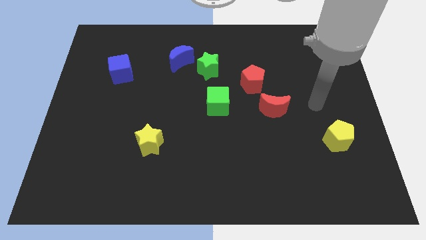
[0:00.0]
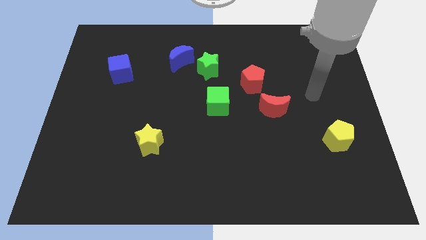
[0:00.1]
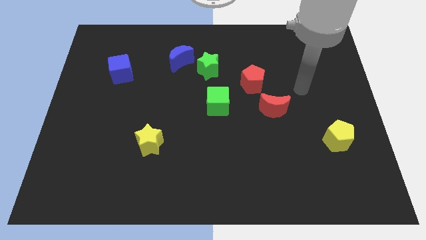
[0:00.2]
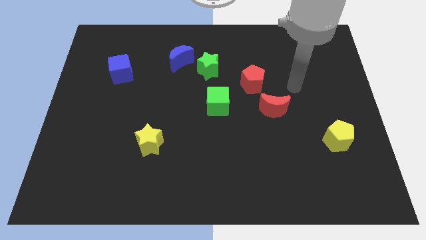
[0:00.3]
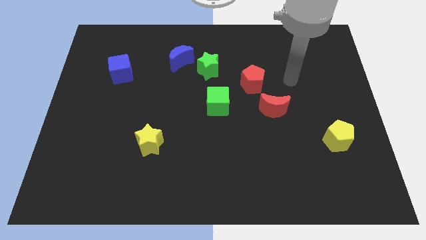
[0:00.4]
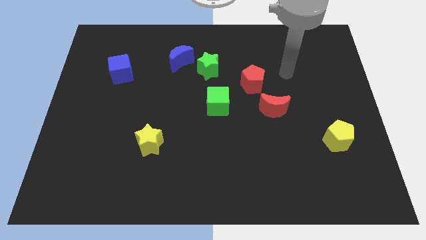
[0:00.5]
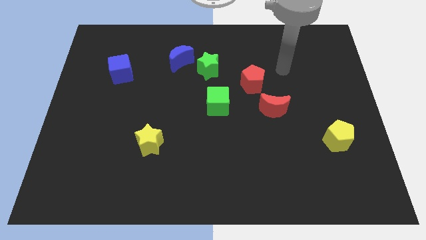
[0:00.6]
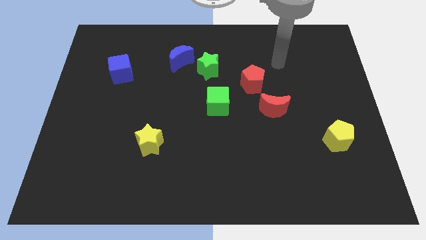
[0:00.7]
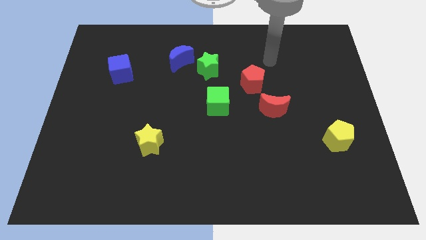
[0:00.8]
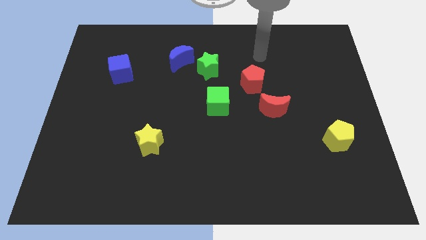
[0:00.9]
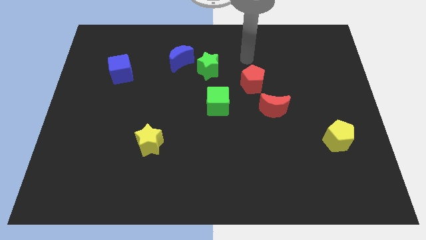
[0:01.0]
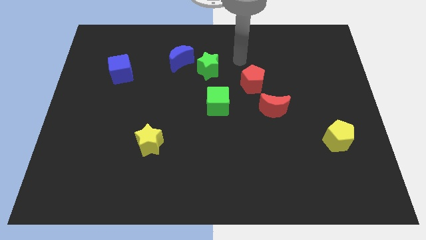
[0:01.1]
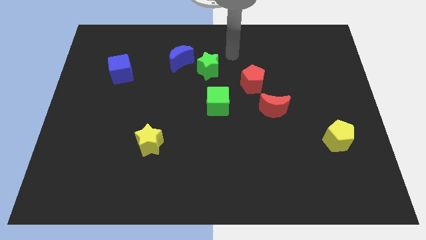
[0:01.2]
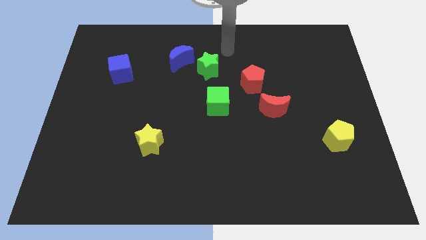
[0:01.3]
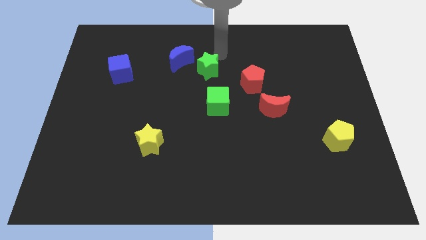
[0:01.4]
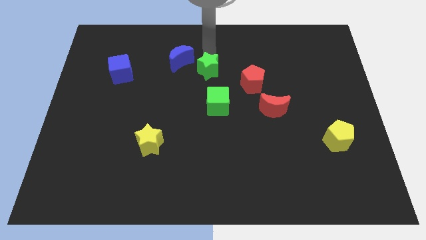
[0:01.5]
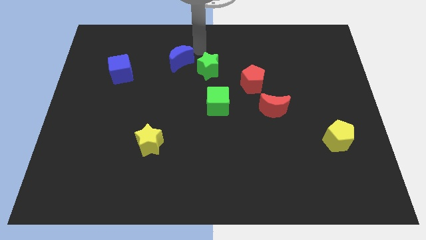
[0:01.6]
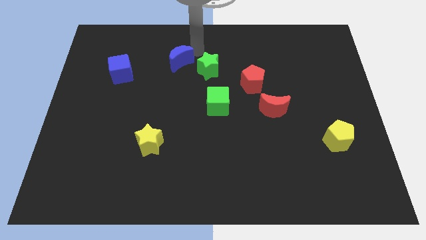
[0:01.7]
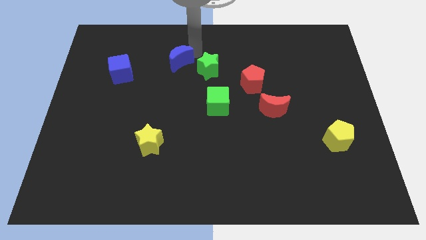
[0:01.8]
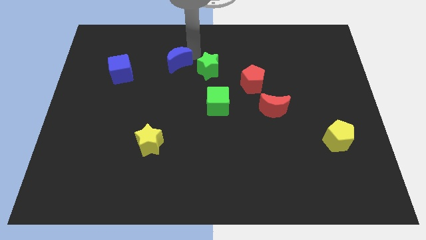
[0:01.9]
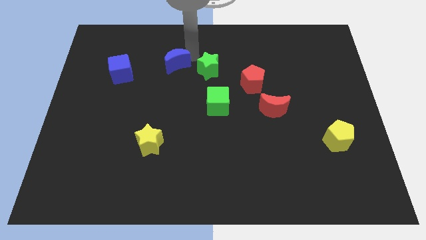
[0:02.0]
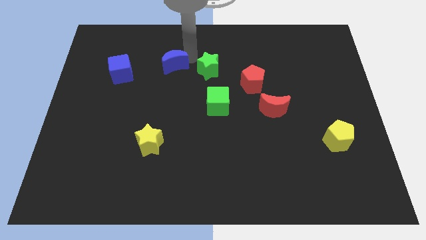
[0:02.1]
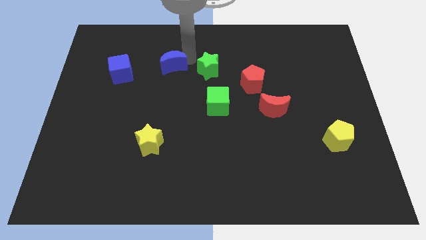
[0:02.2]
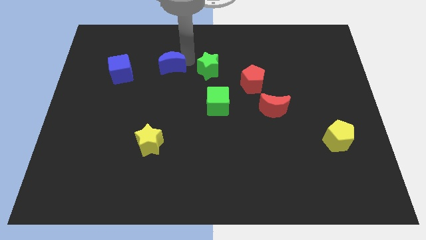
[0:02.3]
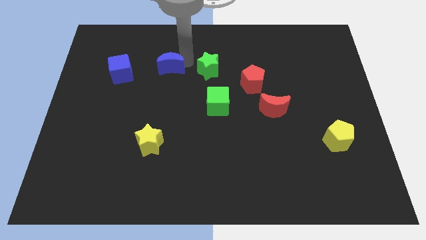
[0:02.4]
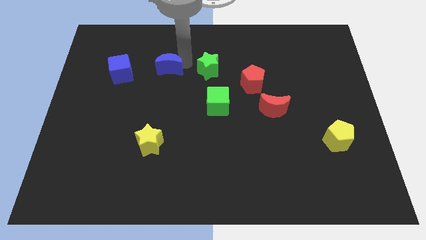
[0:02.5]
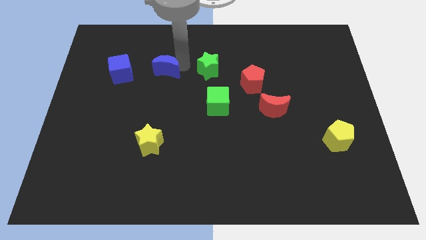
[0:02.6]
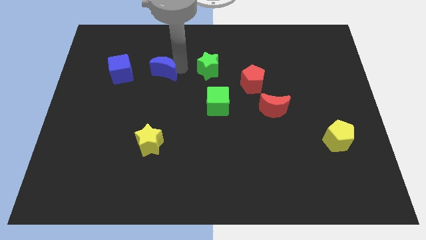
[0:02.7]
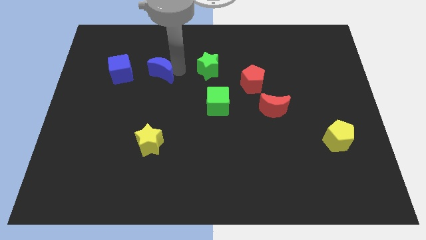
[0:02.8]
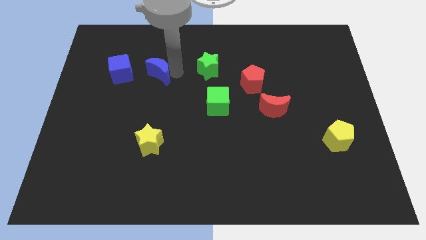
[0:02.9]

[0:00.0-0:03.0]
move the blue moon down and left a little

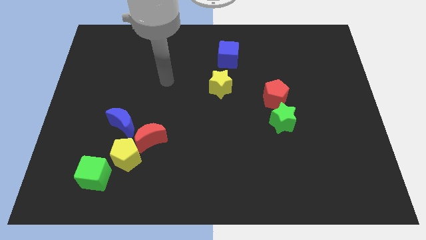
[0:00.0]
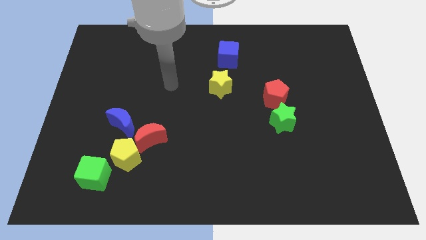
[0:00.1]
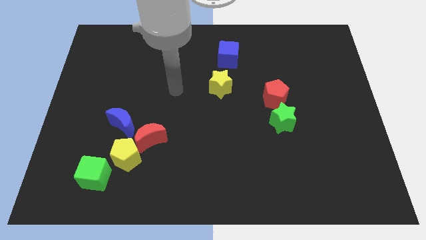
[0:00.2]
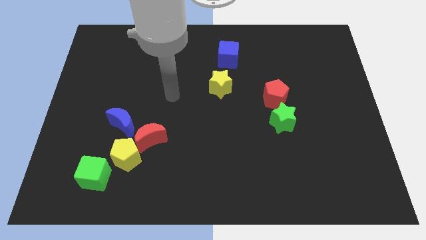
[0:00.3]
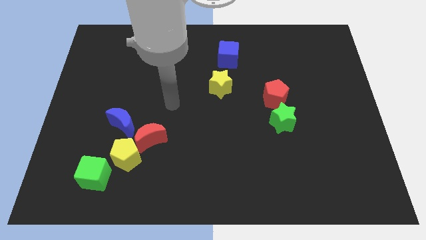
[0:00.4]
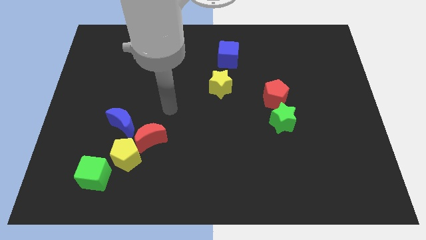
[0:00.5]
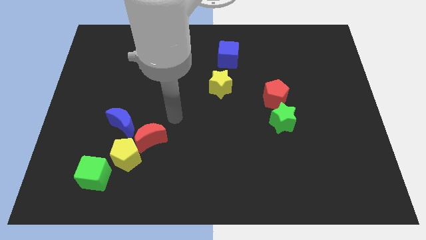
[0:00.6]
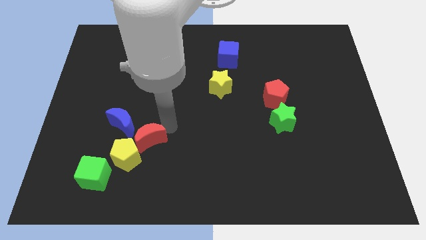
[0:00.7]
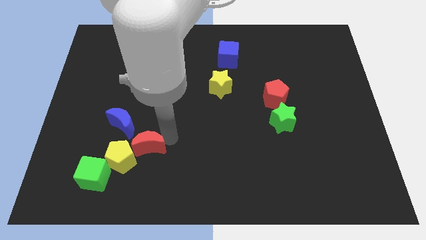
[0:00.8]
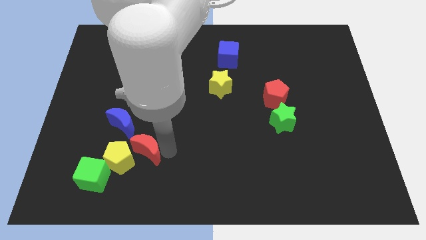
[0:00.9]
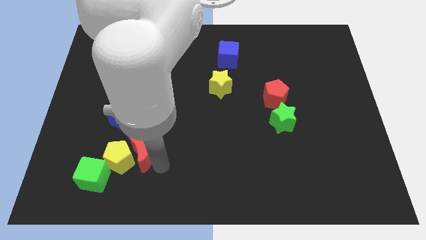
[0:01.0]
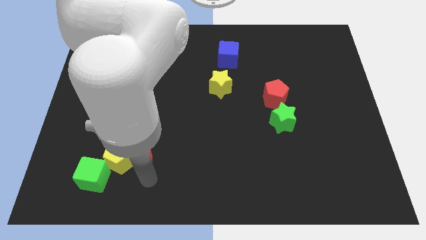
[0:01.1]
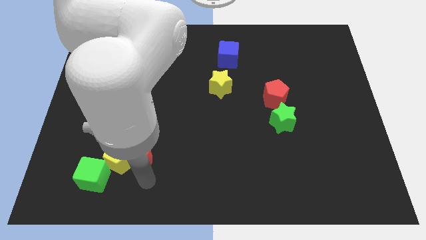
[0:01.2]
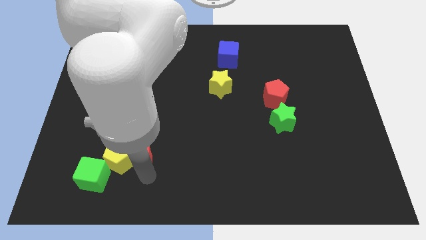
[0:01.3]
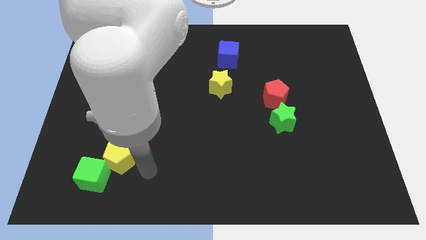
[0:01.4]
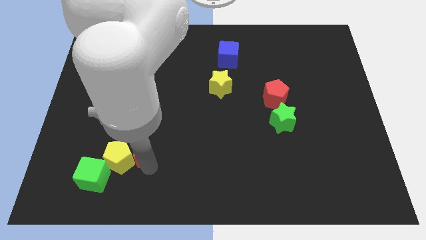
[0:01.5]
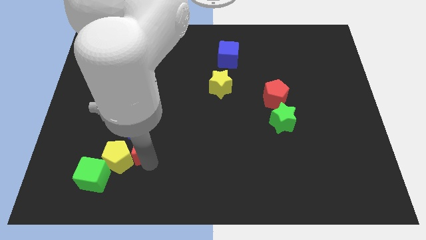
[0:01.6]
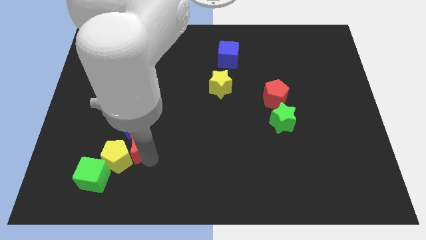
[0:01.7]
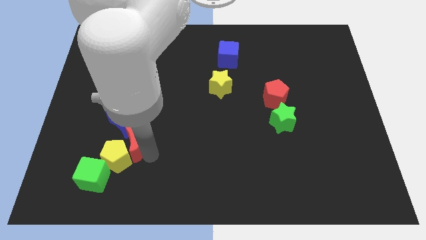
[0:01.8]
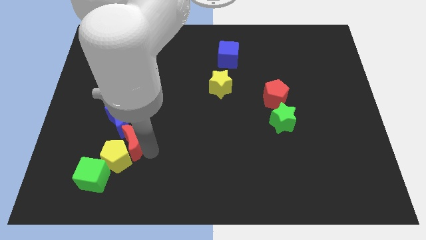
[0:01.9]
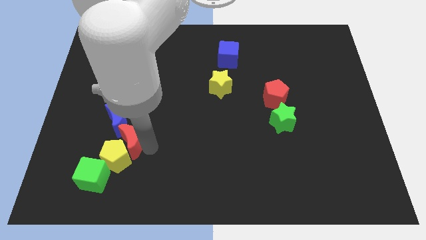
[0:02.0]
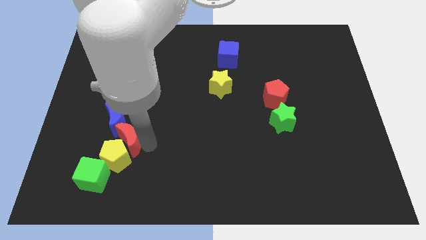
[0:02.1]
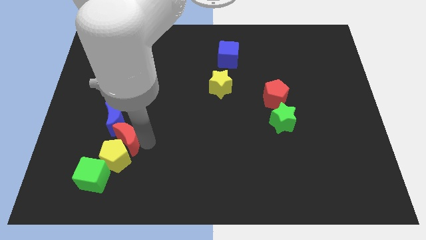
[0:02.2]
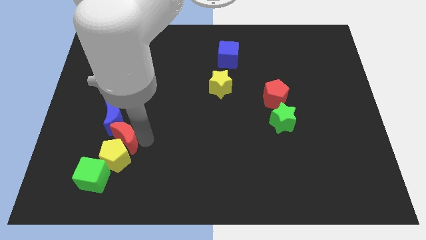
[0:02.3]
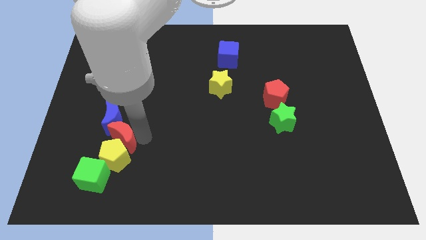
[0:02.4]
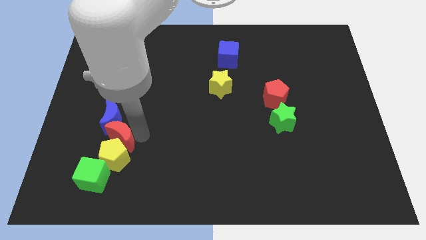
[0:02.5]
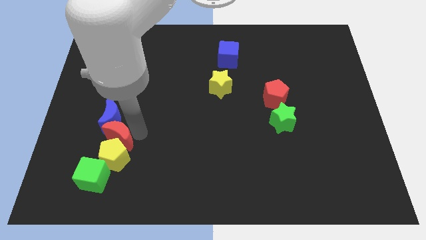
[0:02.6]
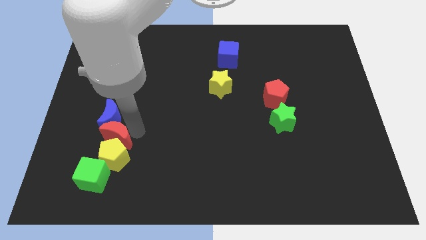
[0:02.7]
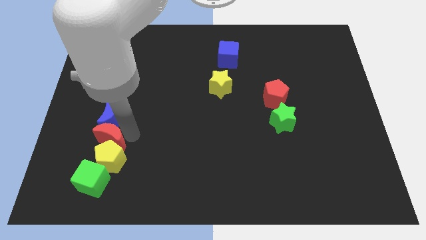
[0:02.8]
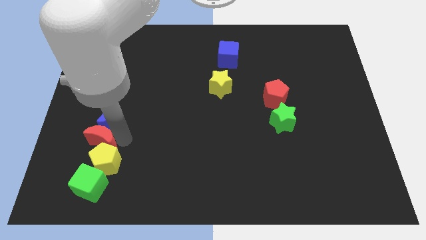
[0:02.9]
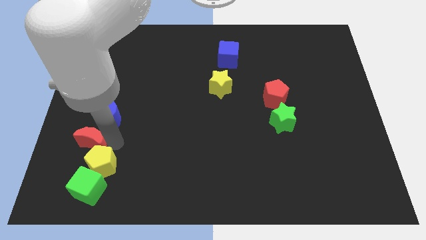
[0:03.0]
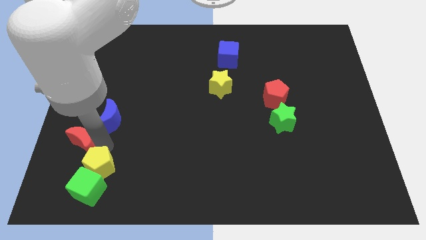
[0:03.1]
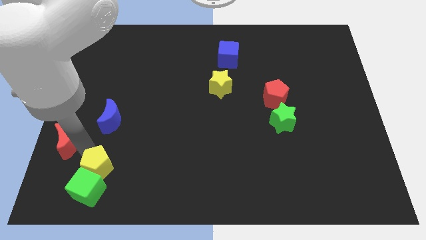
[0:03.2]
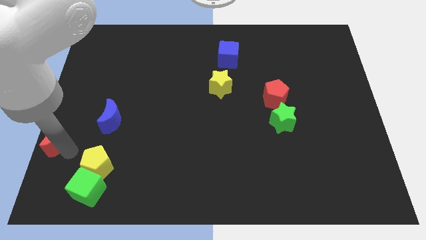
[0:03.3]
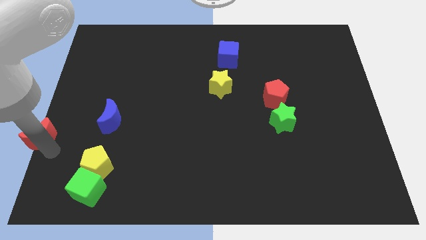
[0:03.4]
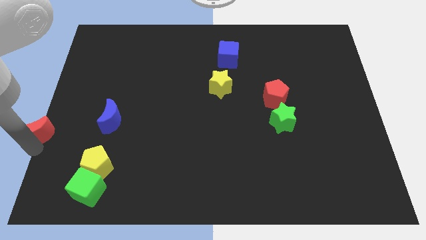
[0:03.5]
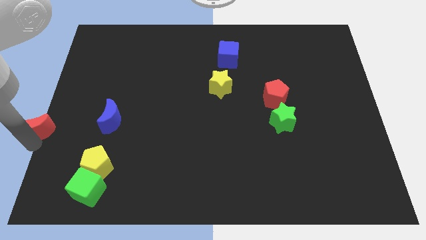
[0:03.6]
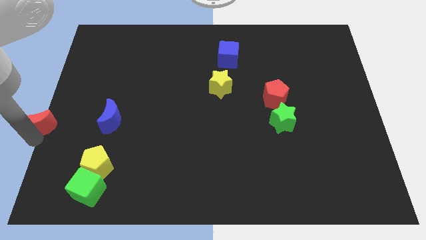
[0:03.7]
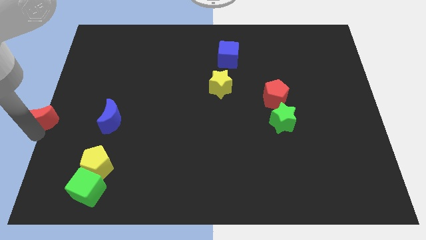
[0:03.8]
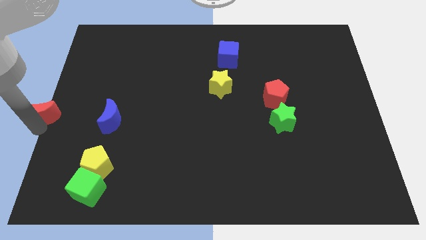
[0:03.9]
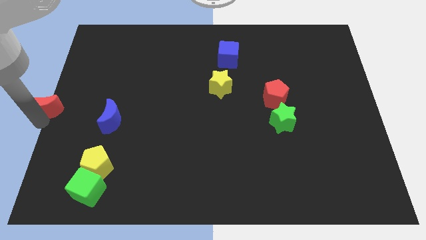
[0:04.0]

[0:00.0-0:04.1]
slightly move the red moon upwards and to the left diagonally

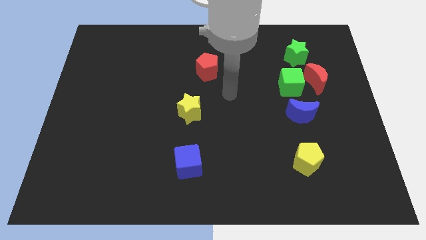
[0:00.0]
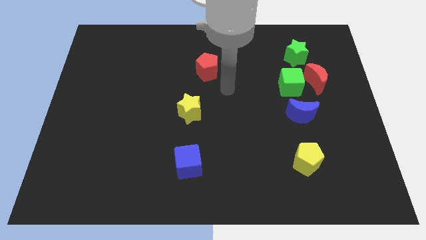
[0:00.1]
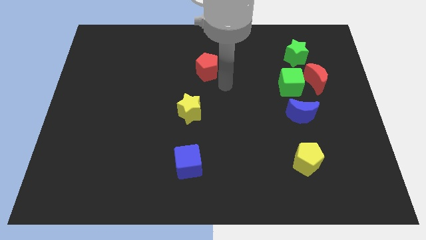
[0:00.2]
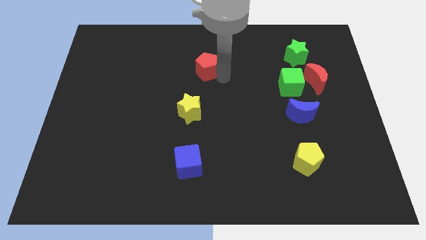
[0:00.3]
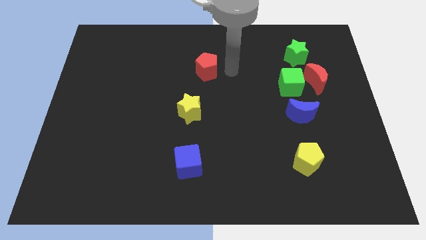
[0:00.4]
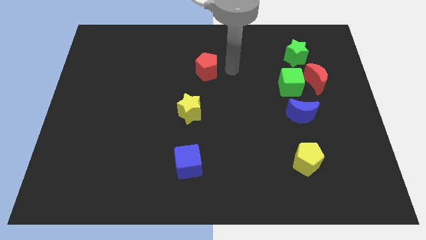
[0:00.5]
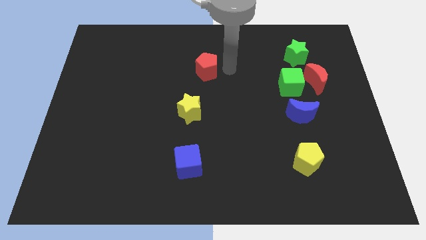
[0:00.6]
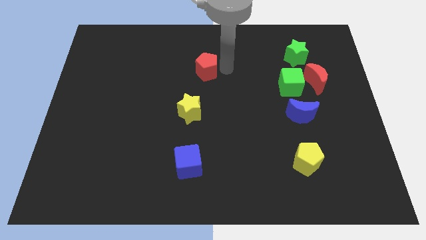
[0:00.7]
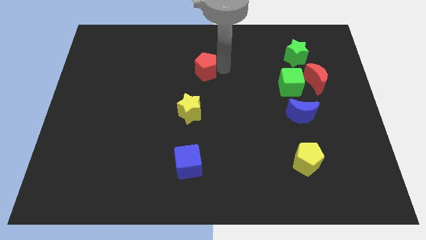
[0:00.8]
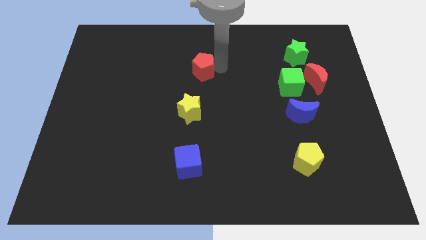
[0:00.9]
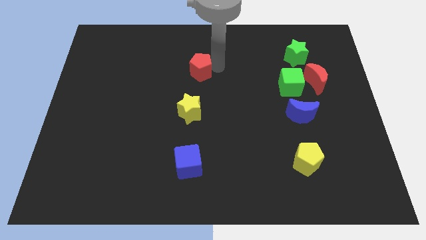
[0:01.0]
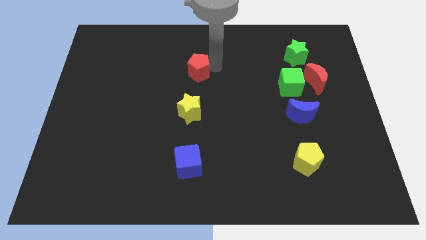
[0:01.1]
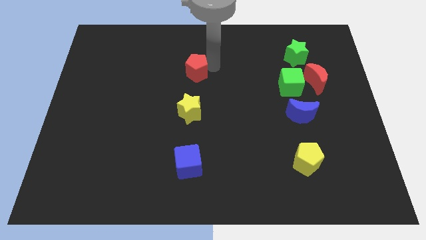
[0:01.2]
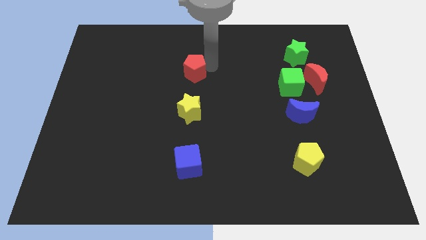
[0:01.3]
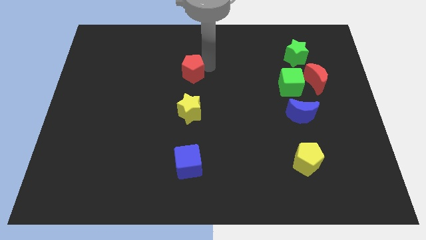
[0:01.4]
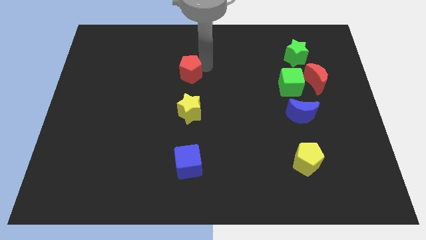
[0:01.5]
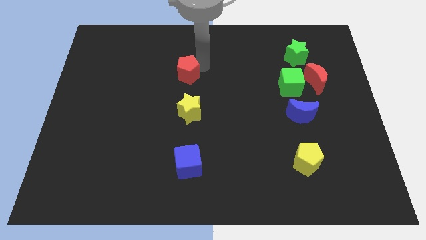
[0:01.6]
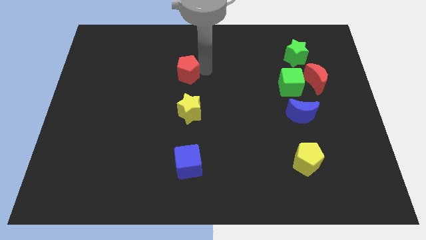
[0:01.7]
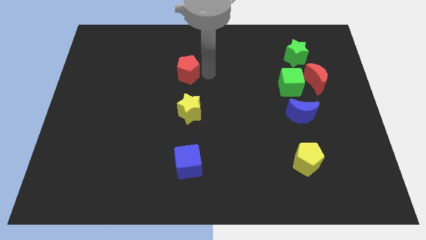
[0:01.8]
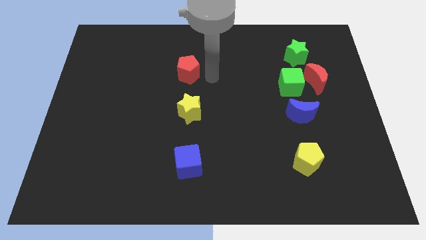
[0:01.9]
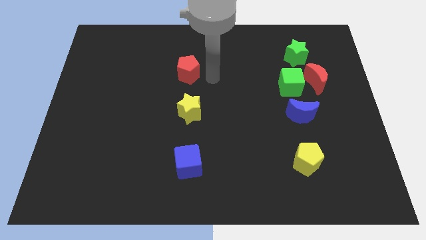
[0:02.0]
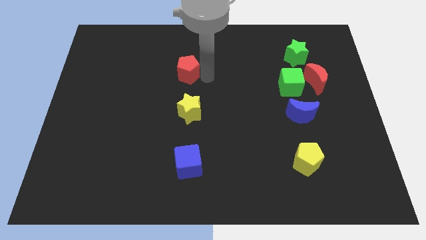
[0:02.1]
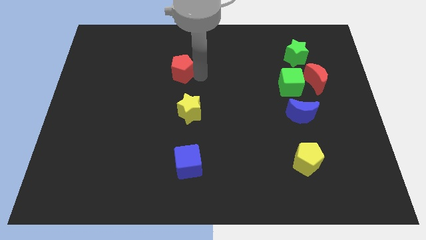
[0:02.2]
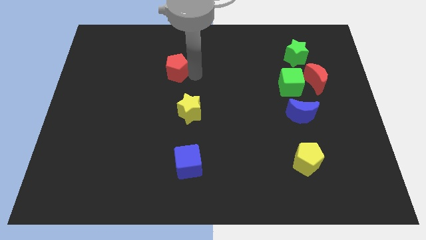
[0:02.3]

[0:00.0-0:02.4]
slide the red pentagon left a little bit
